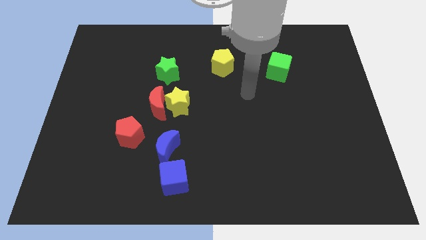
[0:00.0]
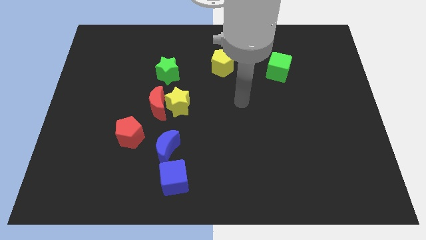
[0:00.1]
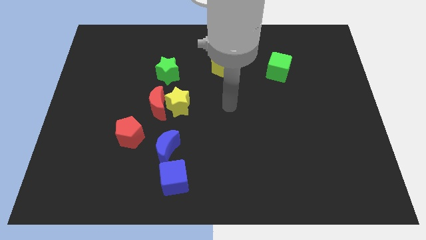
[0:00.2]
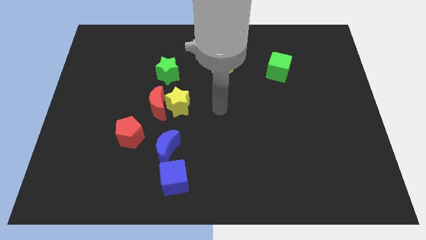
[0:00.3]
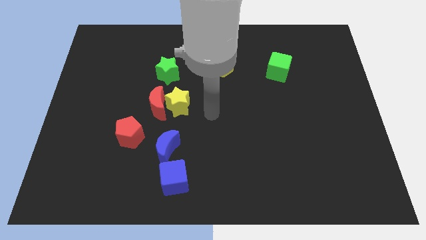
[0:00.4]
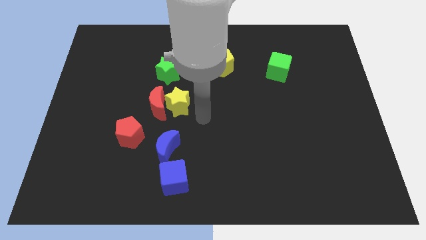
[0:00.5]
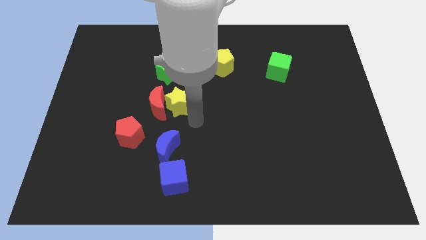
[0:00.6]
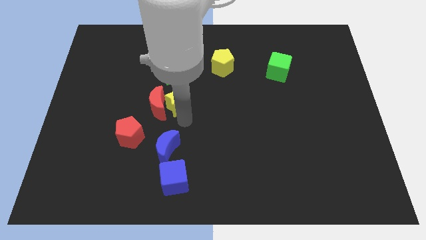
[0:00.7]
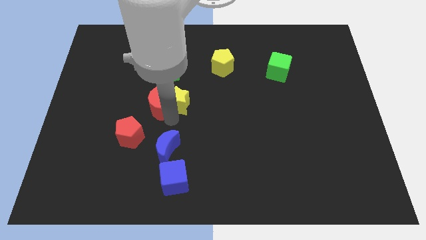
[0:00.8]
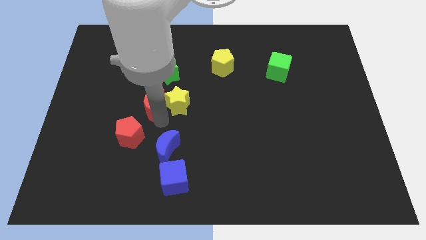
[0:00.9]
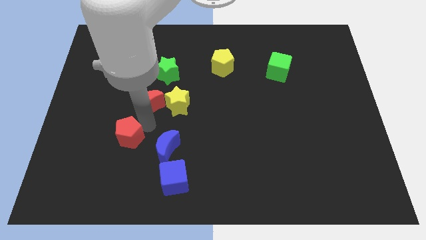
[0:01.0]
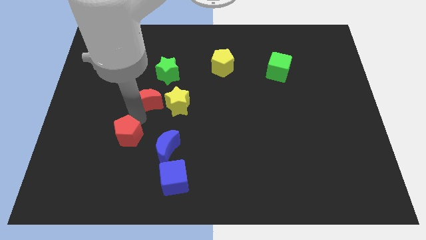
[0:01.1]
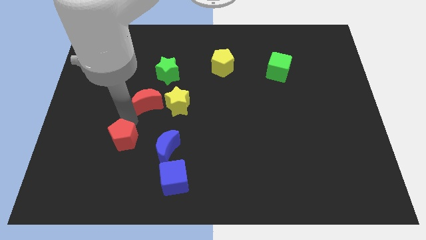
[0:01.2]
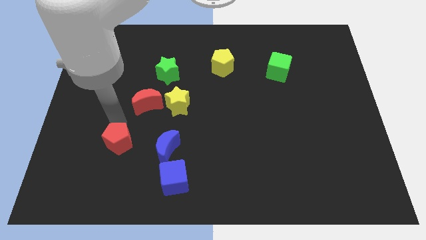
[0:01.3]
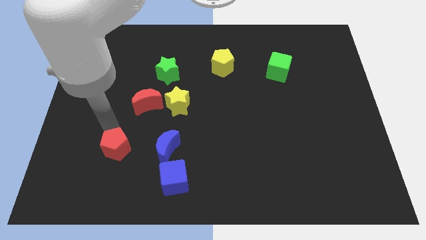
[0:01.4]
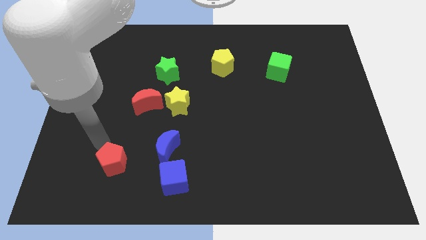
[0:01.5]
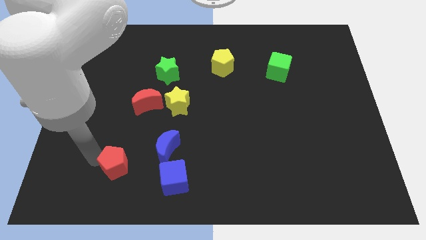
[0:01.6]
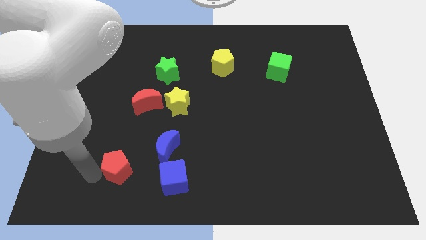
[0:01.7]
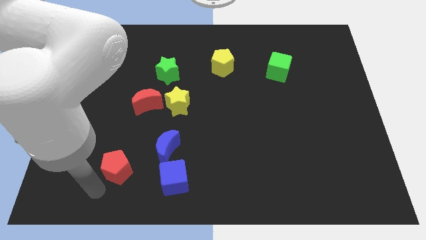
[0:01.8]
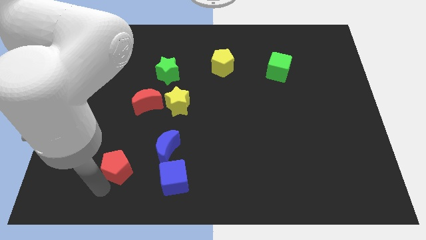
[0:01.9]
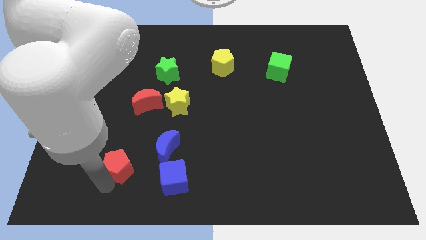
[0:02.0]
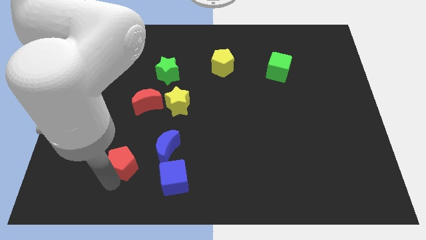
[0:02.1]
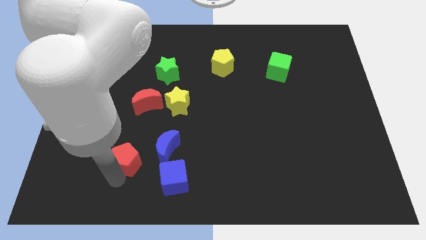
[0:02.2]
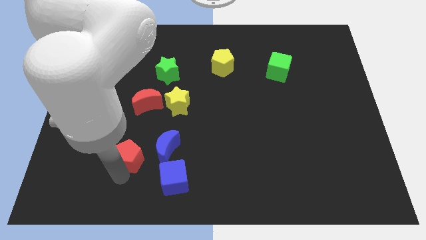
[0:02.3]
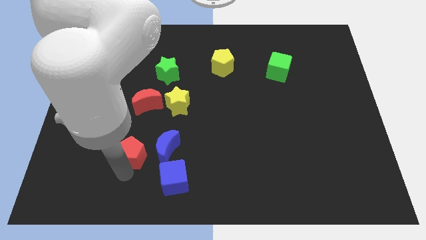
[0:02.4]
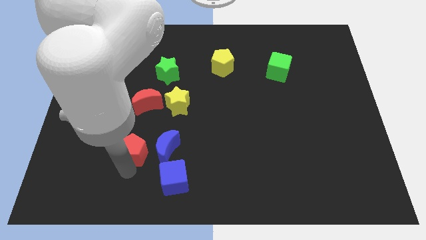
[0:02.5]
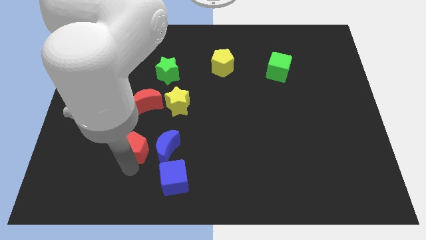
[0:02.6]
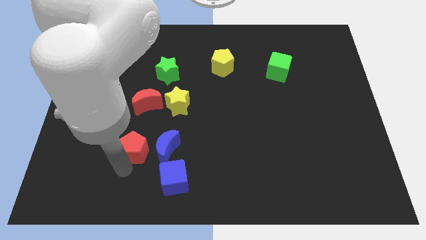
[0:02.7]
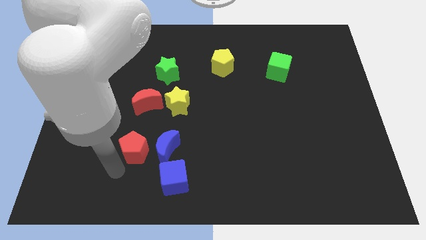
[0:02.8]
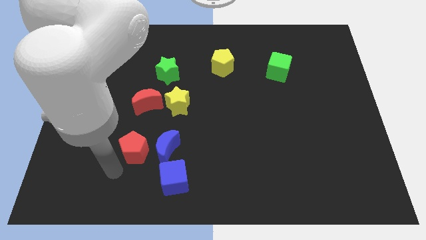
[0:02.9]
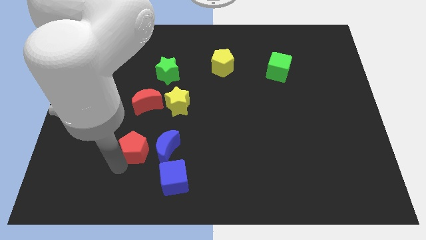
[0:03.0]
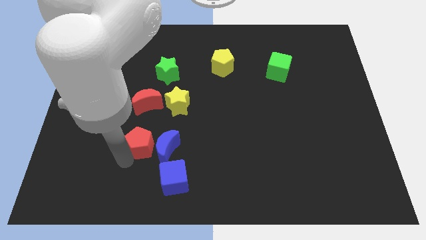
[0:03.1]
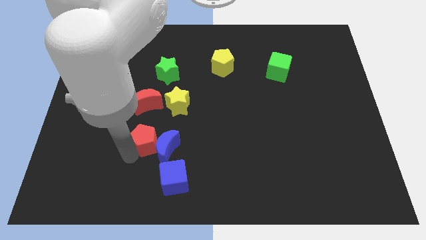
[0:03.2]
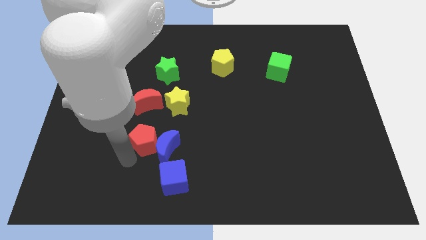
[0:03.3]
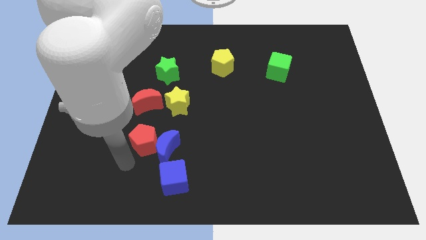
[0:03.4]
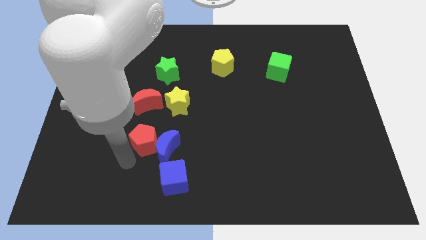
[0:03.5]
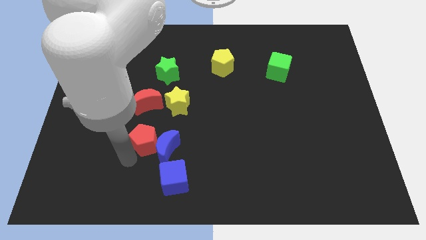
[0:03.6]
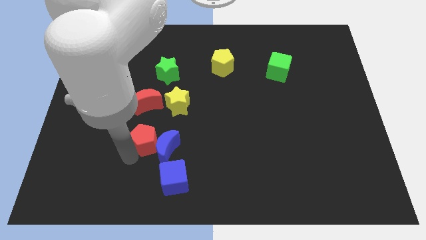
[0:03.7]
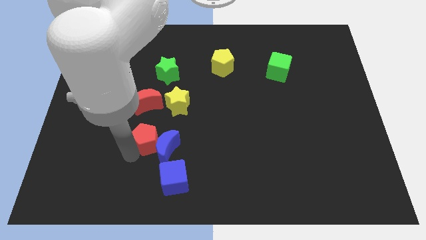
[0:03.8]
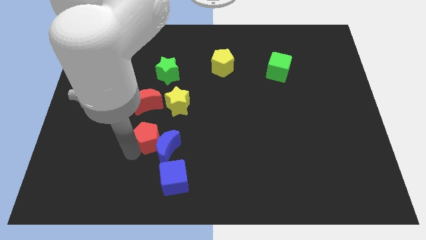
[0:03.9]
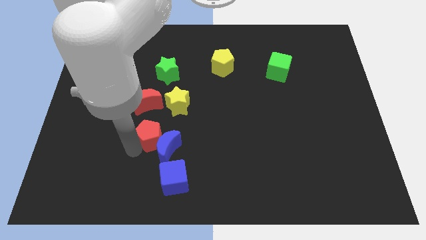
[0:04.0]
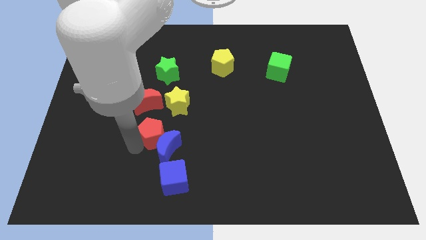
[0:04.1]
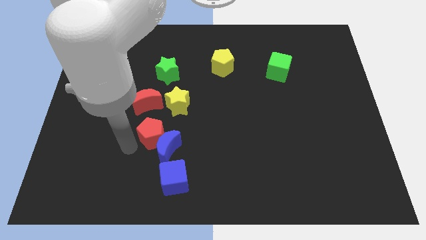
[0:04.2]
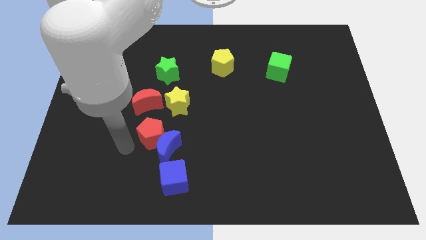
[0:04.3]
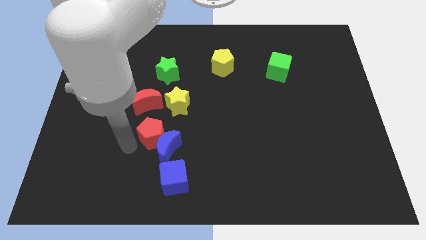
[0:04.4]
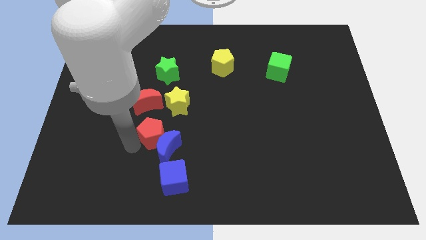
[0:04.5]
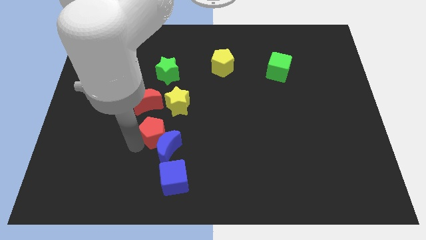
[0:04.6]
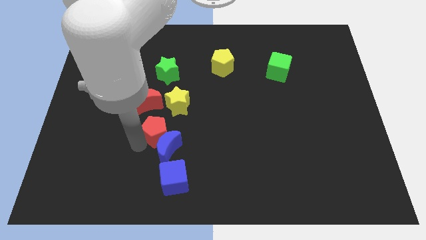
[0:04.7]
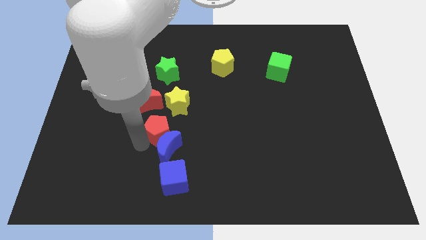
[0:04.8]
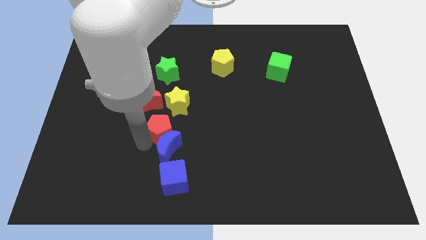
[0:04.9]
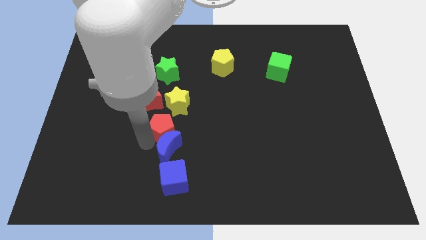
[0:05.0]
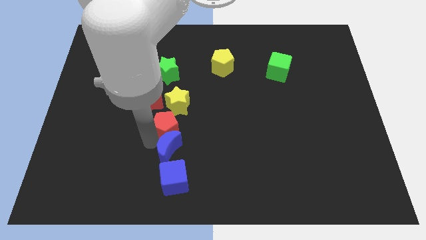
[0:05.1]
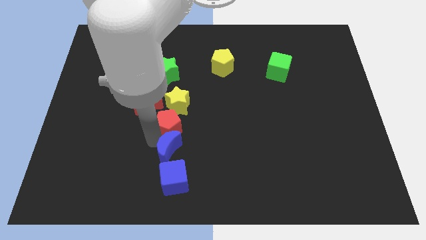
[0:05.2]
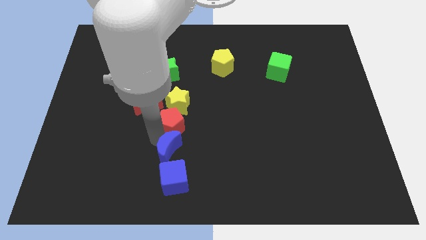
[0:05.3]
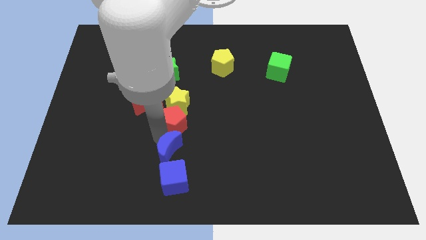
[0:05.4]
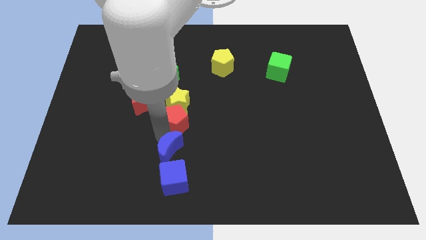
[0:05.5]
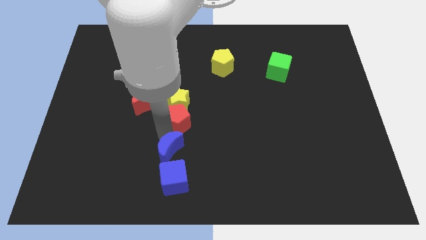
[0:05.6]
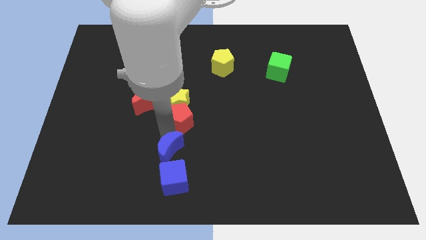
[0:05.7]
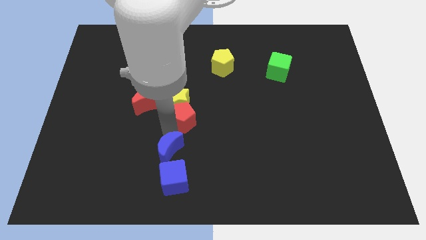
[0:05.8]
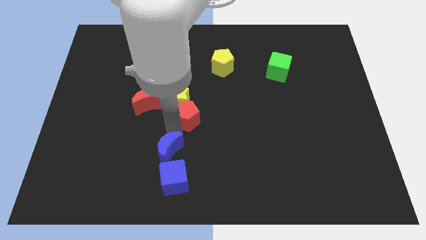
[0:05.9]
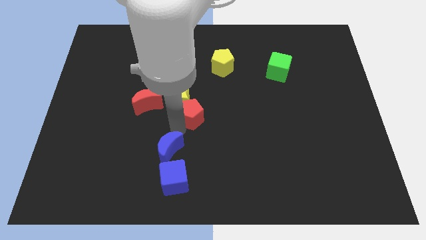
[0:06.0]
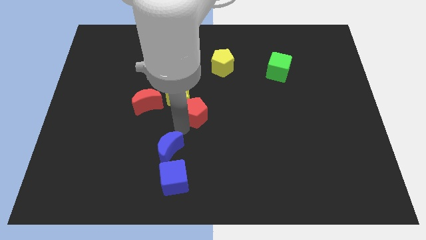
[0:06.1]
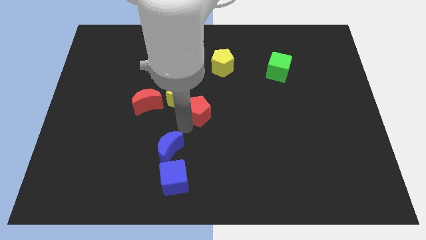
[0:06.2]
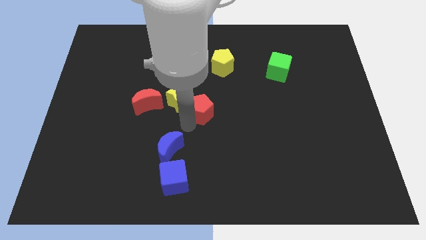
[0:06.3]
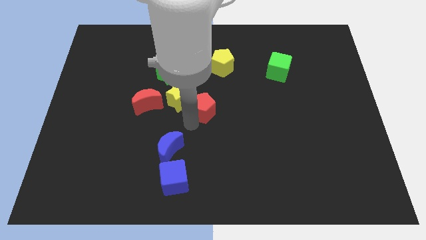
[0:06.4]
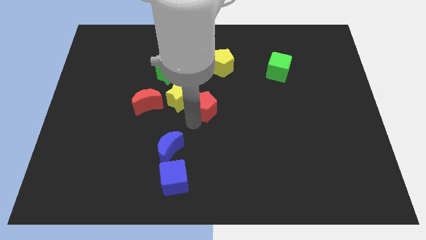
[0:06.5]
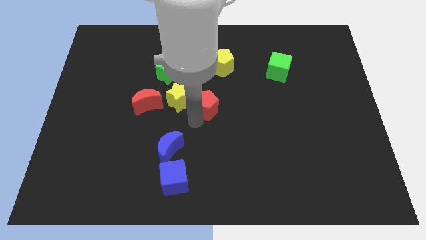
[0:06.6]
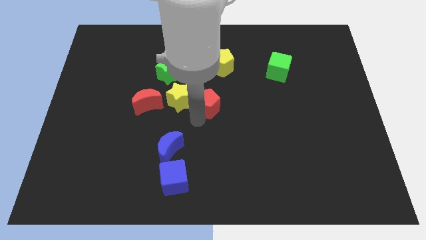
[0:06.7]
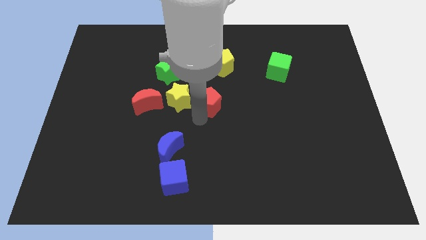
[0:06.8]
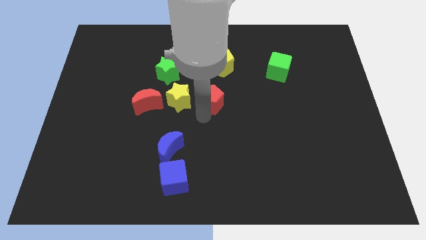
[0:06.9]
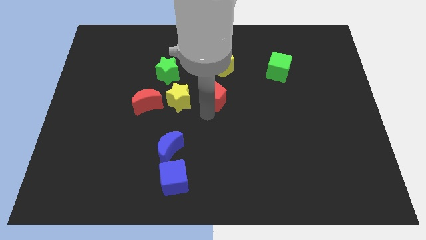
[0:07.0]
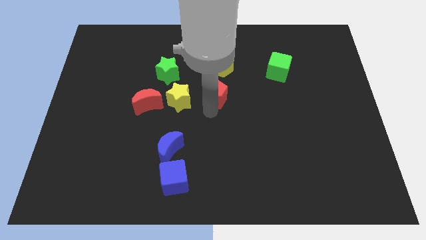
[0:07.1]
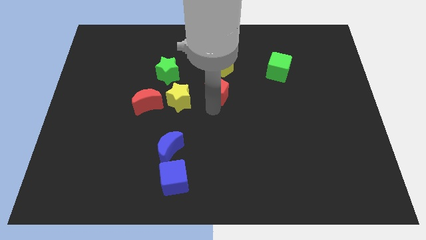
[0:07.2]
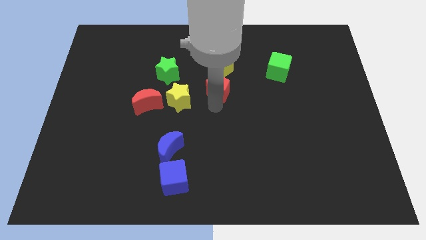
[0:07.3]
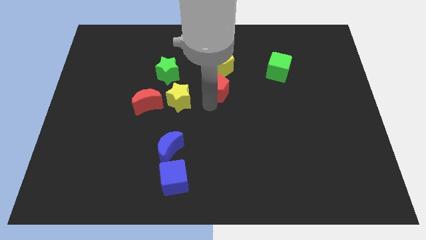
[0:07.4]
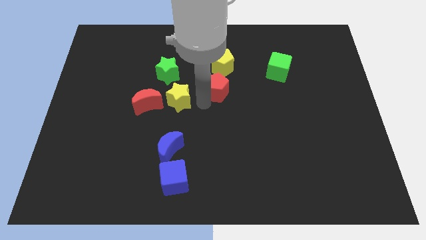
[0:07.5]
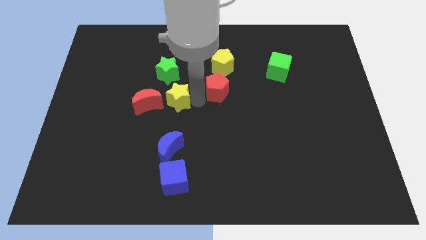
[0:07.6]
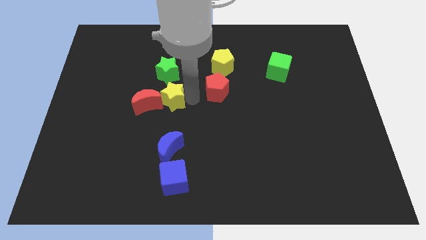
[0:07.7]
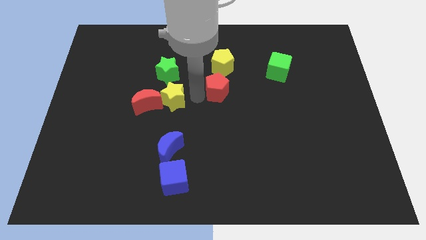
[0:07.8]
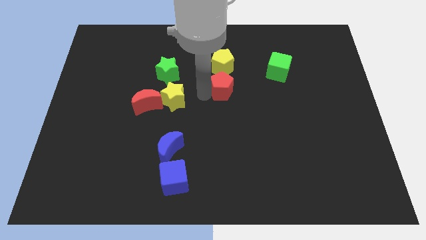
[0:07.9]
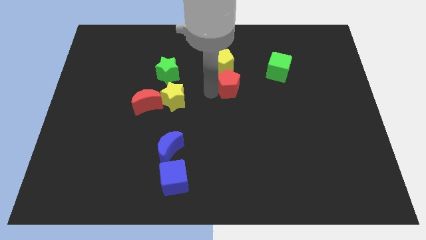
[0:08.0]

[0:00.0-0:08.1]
push the red pentagon to the bottom right side of the yellow pentagon
